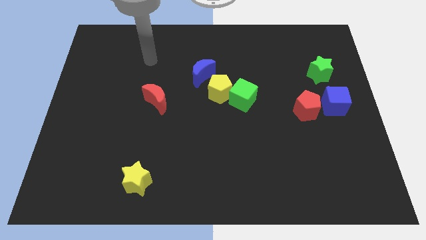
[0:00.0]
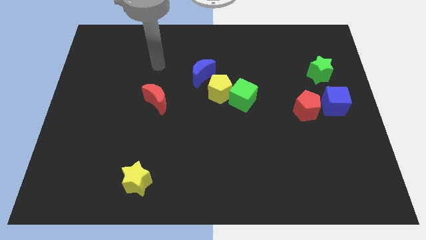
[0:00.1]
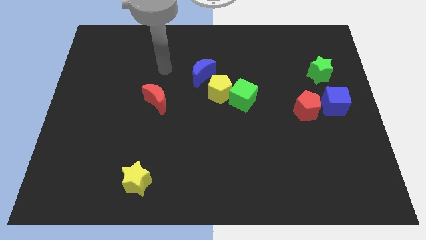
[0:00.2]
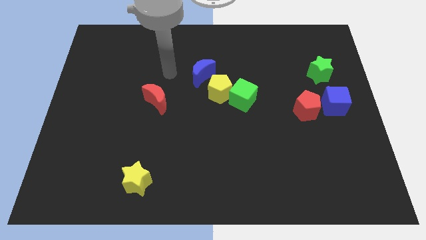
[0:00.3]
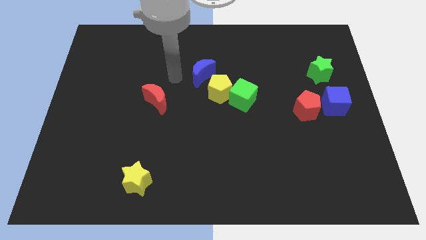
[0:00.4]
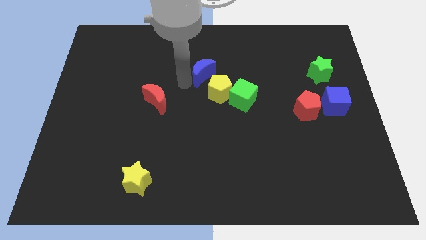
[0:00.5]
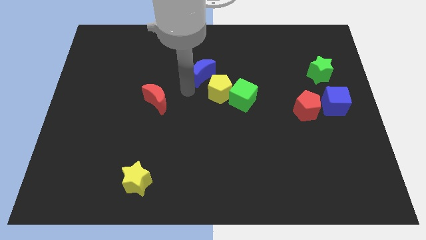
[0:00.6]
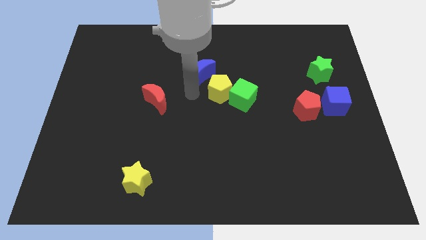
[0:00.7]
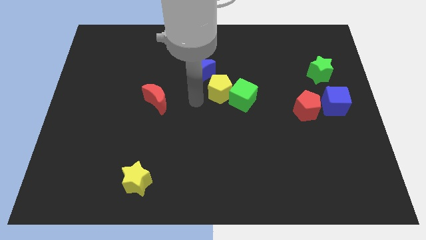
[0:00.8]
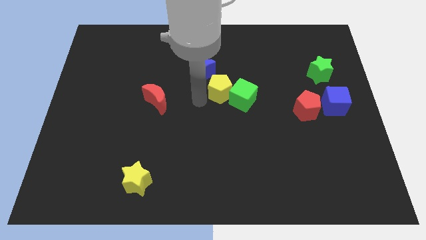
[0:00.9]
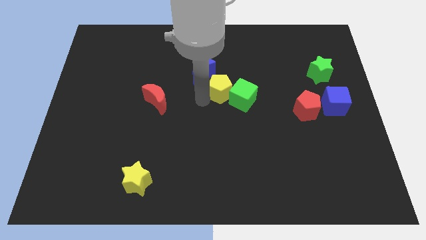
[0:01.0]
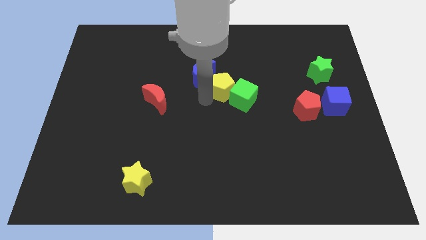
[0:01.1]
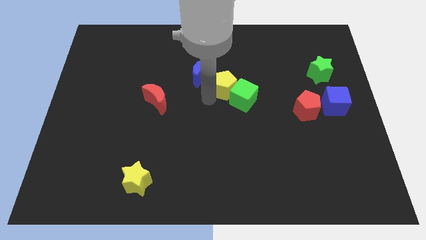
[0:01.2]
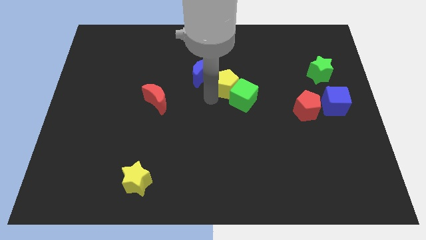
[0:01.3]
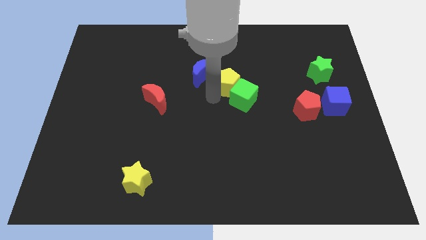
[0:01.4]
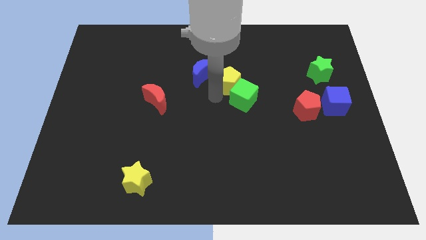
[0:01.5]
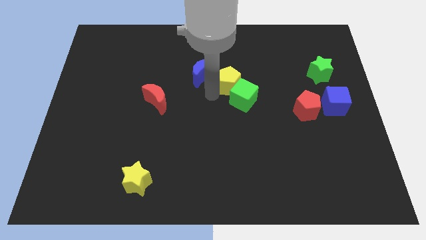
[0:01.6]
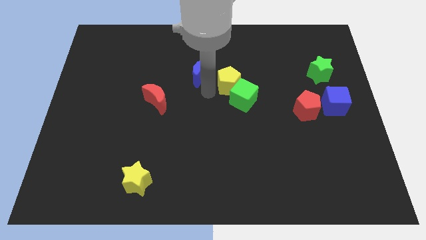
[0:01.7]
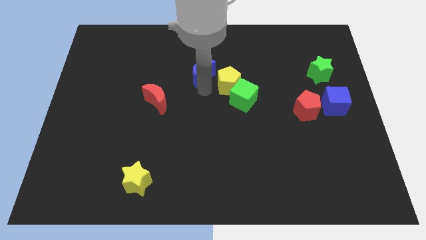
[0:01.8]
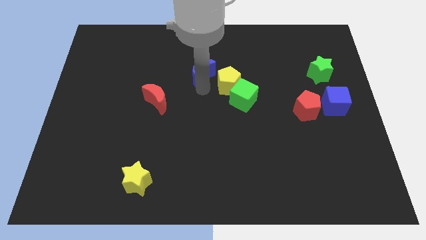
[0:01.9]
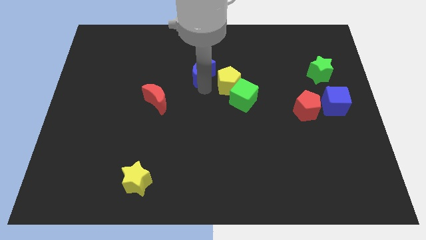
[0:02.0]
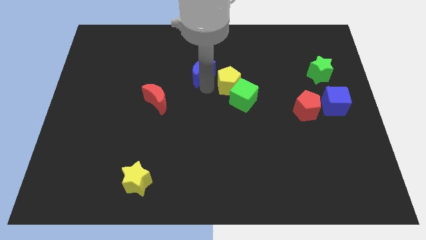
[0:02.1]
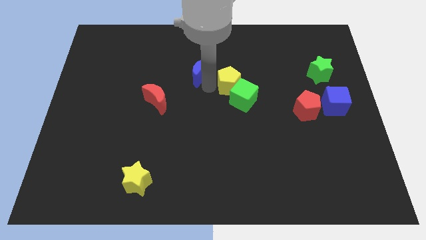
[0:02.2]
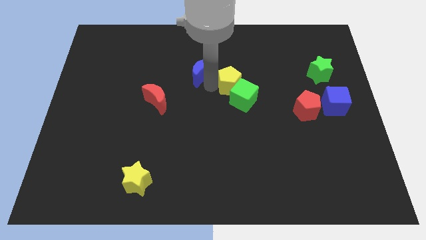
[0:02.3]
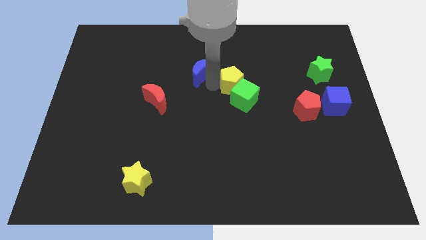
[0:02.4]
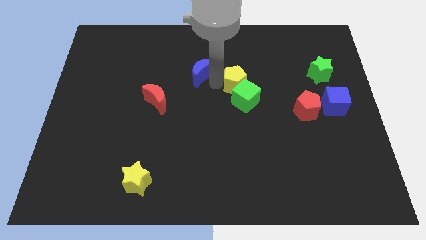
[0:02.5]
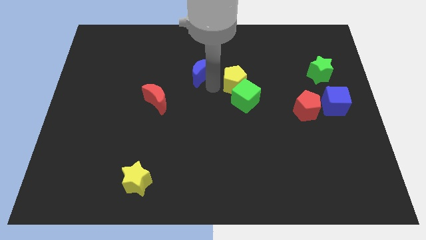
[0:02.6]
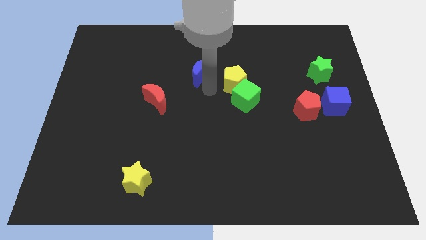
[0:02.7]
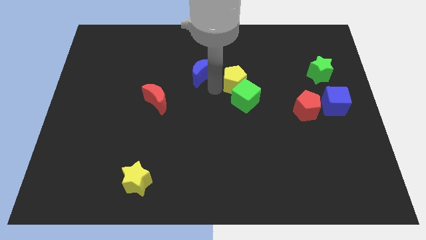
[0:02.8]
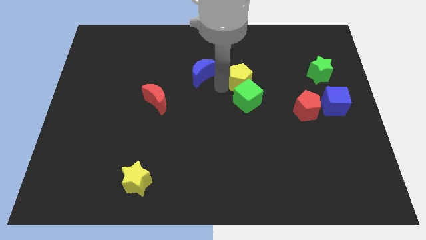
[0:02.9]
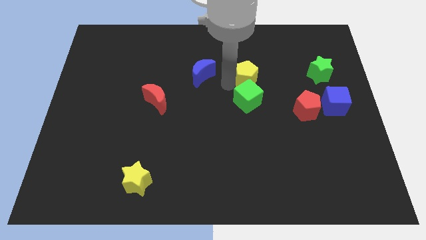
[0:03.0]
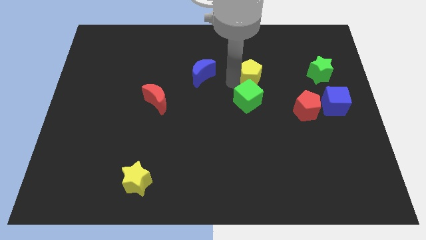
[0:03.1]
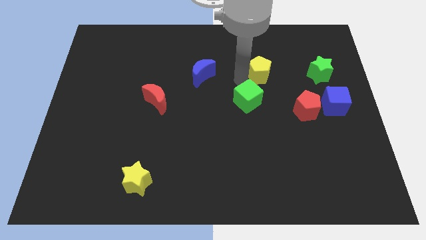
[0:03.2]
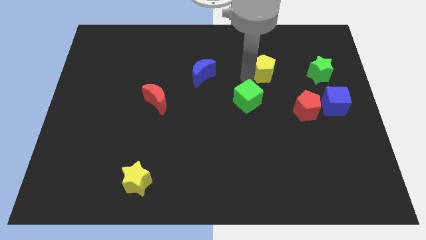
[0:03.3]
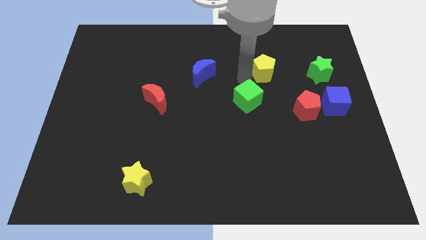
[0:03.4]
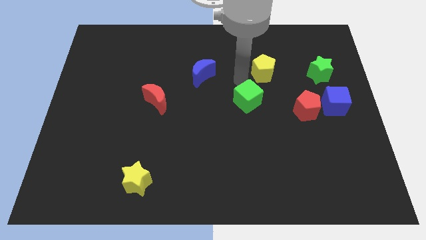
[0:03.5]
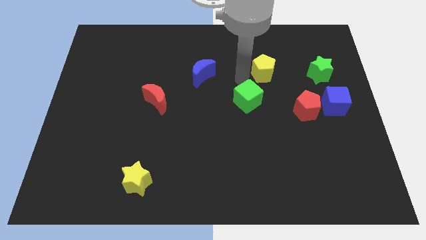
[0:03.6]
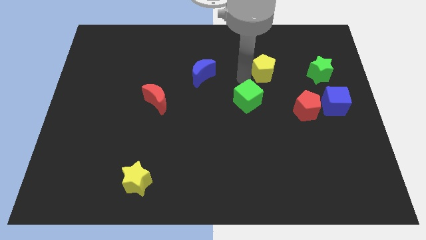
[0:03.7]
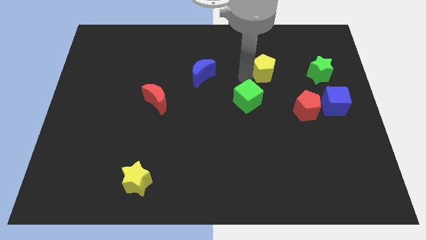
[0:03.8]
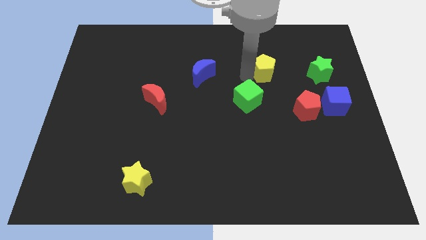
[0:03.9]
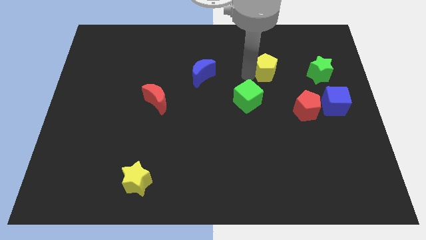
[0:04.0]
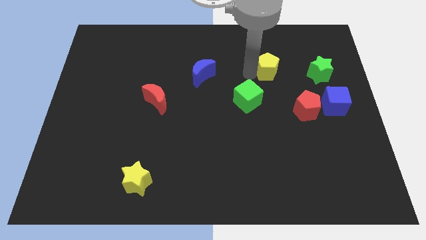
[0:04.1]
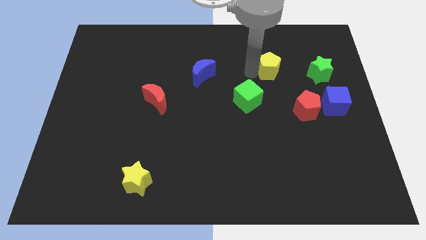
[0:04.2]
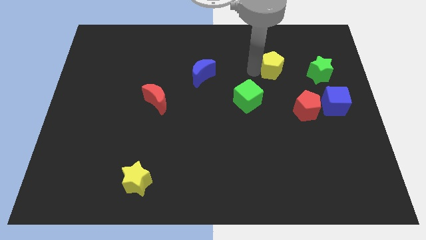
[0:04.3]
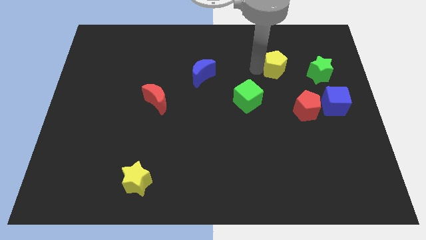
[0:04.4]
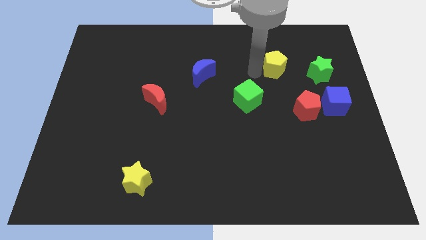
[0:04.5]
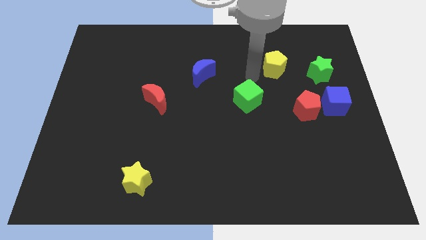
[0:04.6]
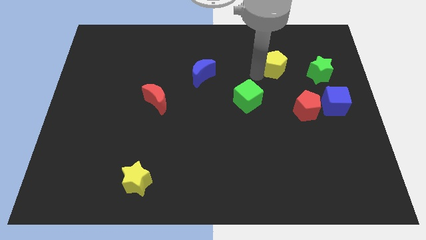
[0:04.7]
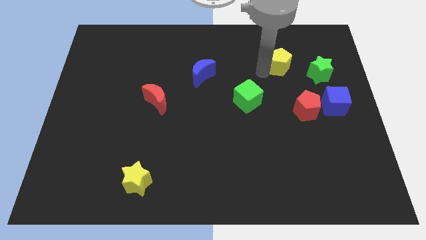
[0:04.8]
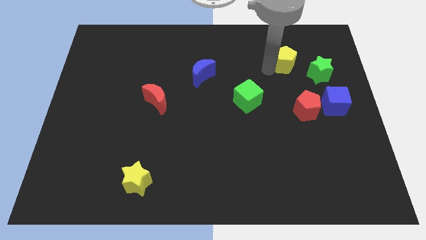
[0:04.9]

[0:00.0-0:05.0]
push the yellow pentagon to the top left of the green star

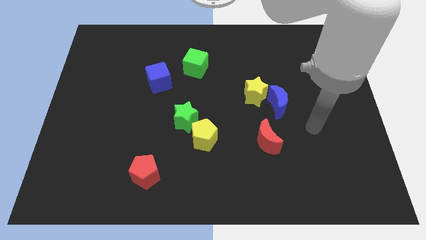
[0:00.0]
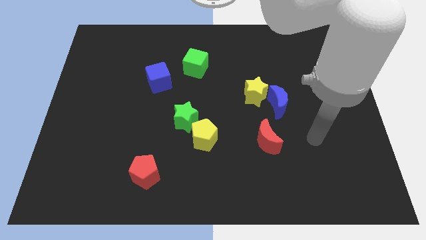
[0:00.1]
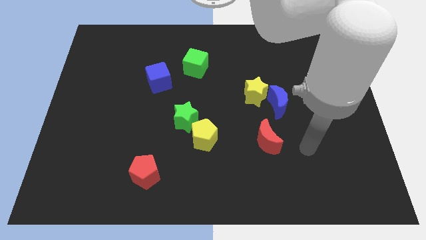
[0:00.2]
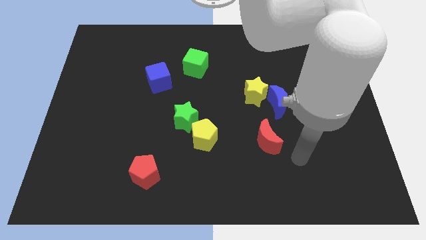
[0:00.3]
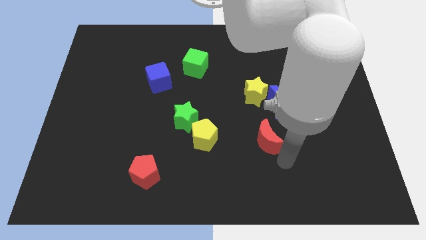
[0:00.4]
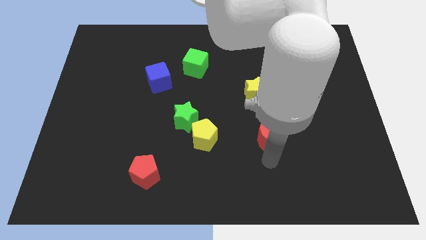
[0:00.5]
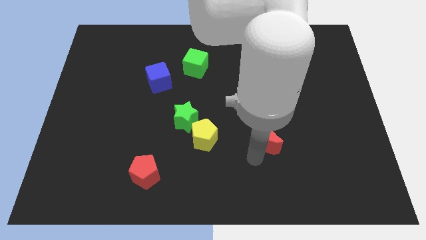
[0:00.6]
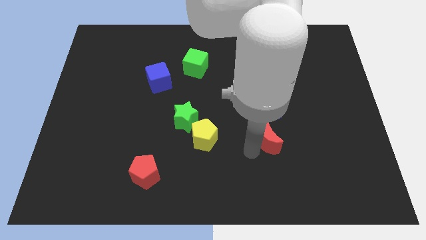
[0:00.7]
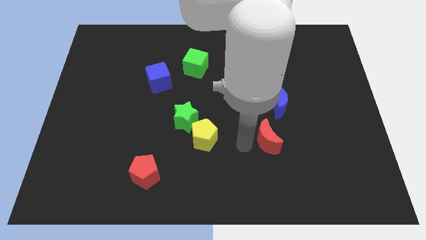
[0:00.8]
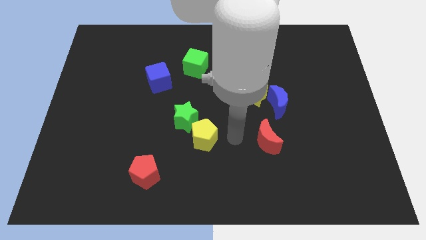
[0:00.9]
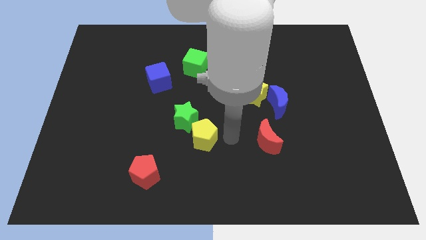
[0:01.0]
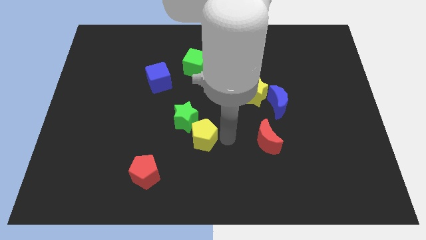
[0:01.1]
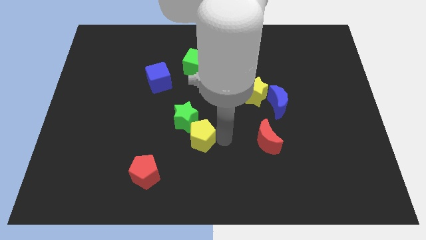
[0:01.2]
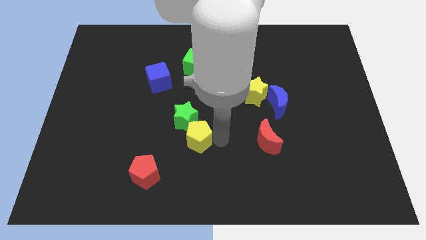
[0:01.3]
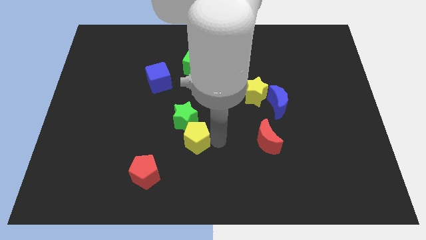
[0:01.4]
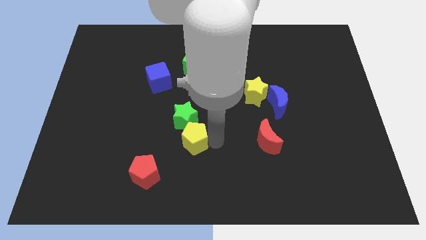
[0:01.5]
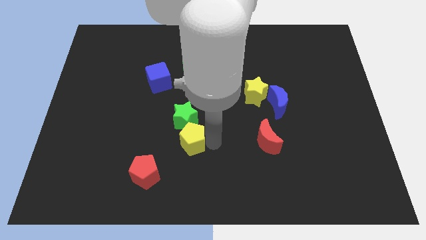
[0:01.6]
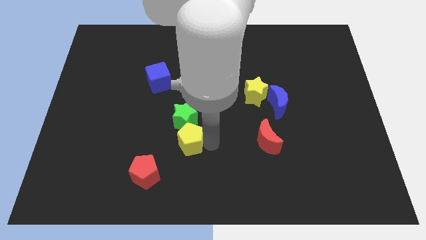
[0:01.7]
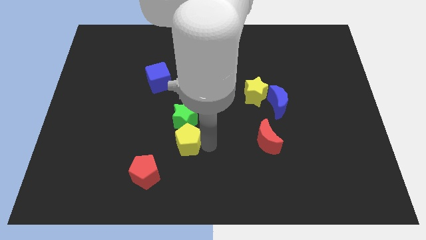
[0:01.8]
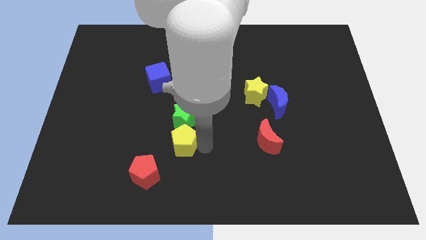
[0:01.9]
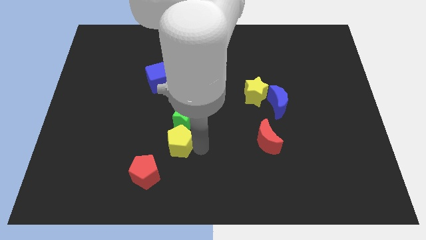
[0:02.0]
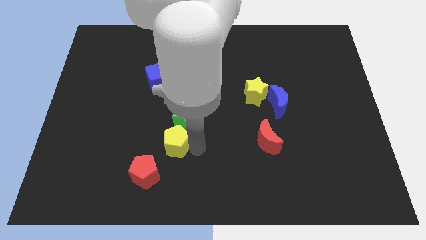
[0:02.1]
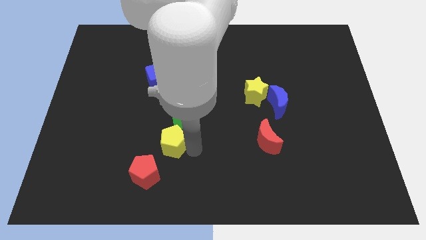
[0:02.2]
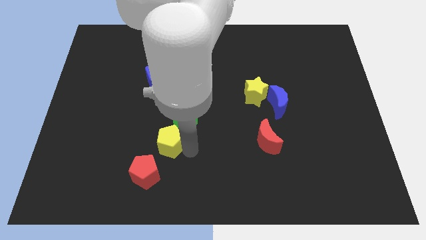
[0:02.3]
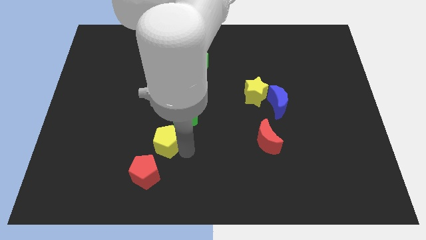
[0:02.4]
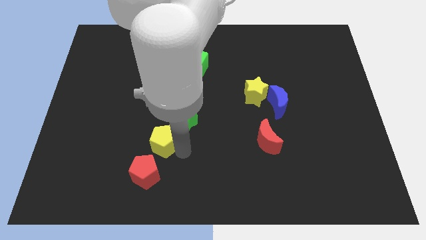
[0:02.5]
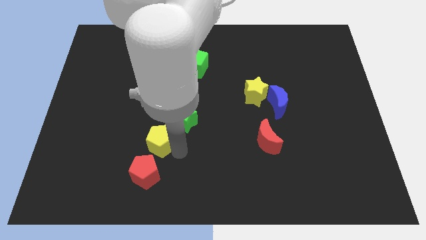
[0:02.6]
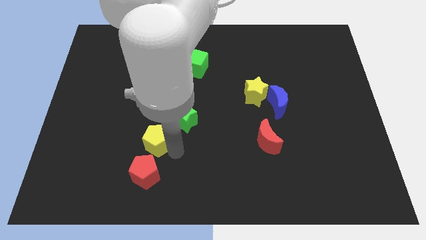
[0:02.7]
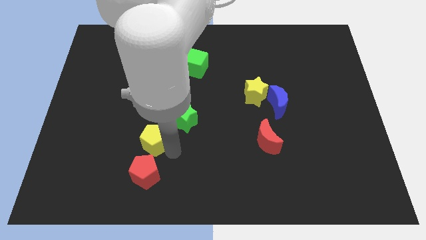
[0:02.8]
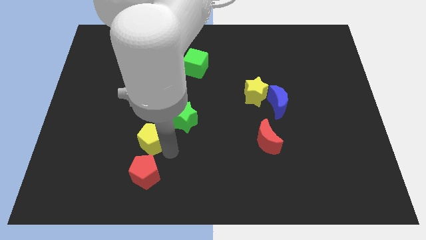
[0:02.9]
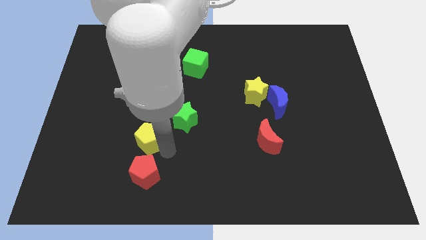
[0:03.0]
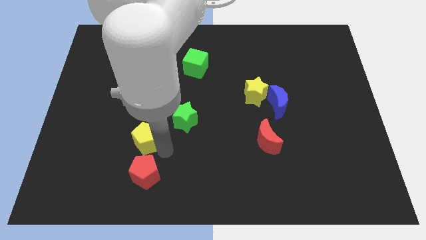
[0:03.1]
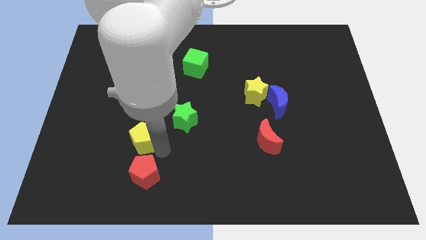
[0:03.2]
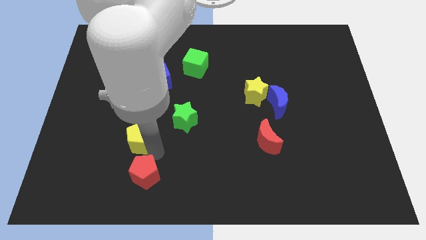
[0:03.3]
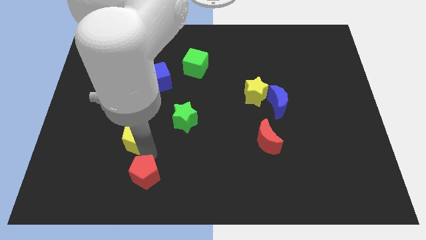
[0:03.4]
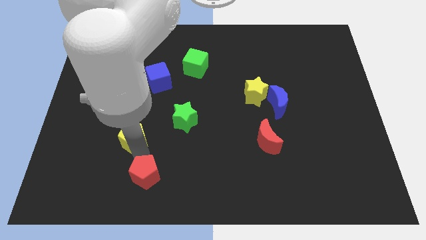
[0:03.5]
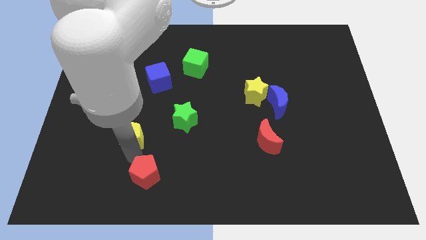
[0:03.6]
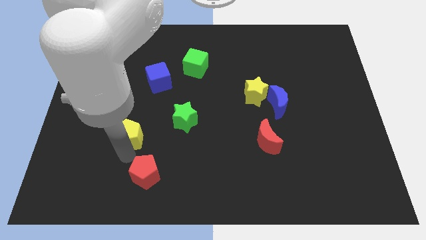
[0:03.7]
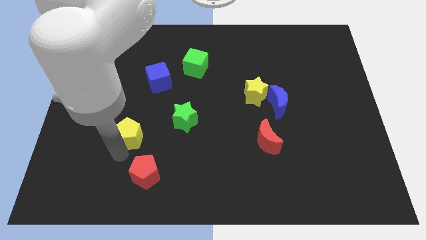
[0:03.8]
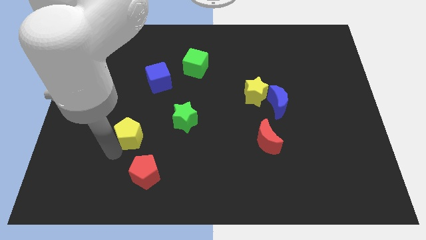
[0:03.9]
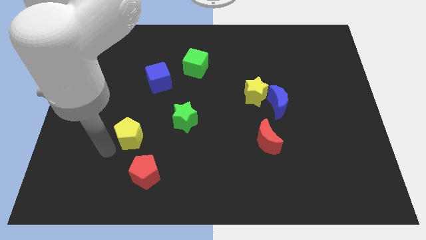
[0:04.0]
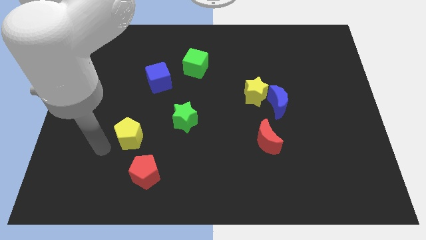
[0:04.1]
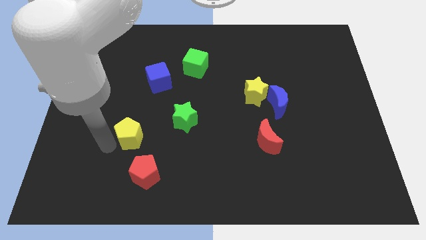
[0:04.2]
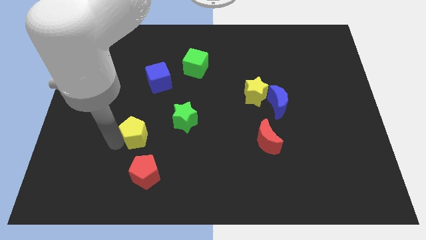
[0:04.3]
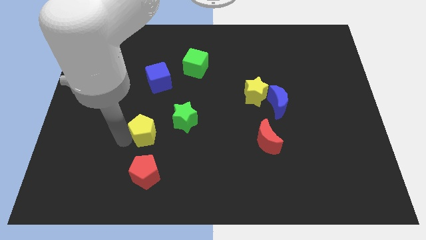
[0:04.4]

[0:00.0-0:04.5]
move the yellow pentagon to the bottom of the blue cube
